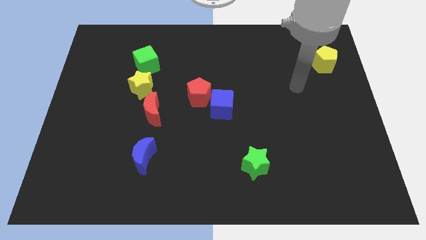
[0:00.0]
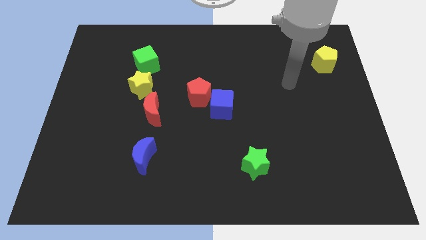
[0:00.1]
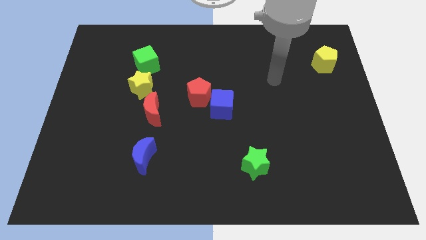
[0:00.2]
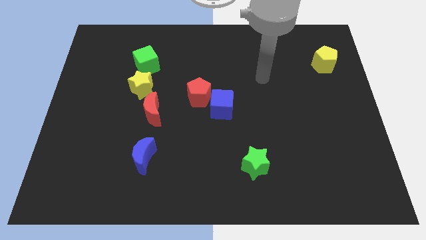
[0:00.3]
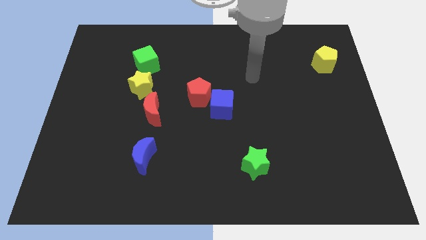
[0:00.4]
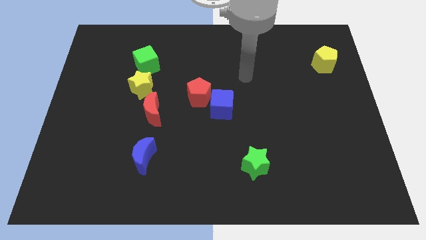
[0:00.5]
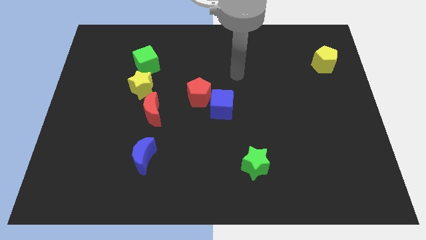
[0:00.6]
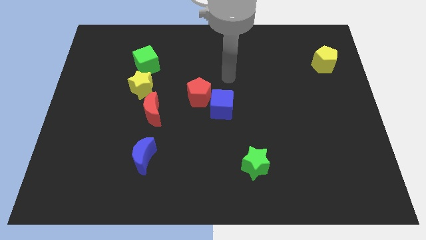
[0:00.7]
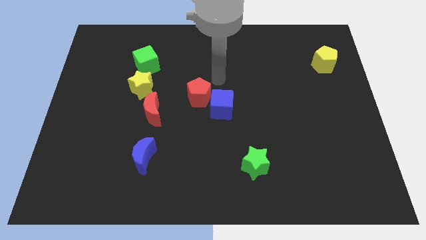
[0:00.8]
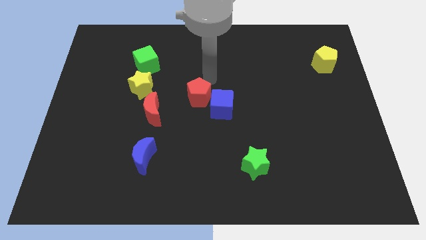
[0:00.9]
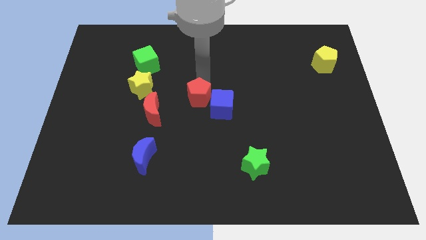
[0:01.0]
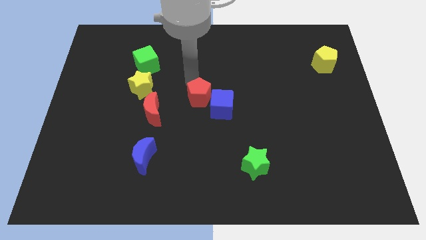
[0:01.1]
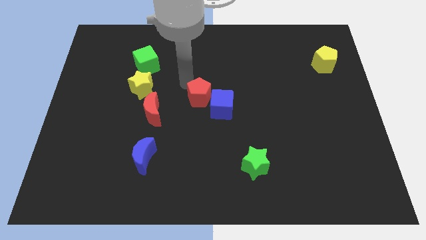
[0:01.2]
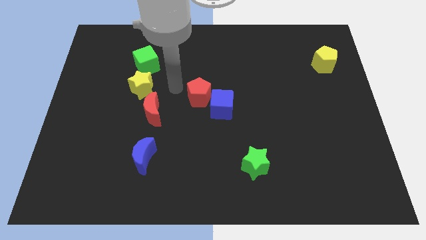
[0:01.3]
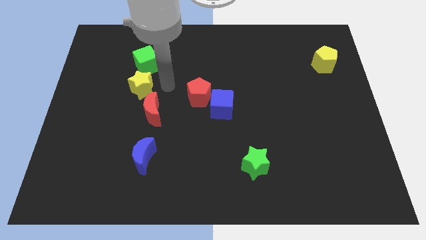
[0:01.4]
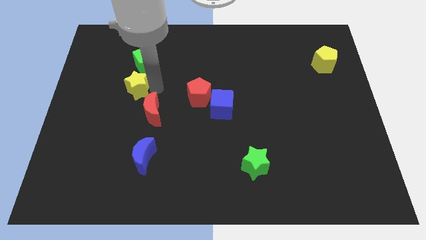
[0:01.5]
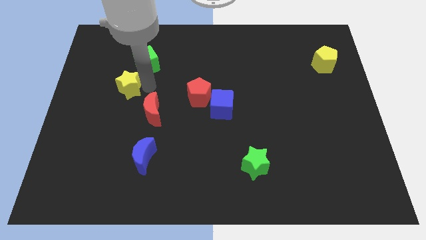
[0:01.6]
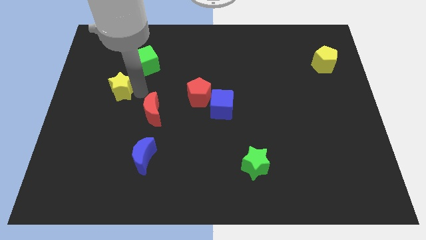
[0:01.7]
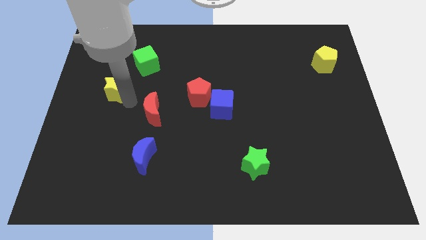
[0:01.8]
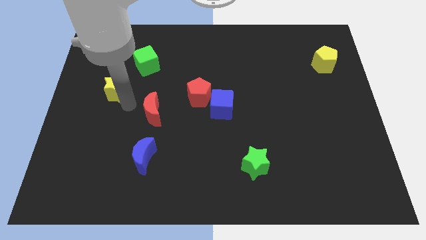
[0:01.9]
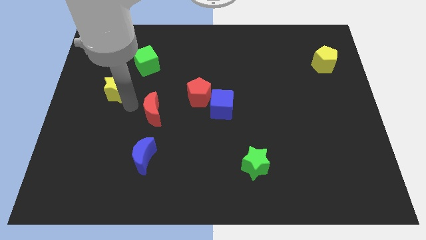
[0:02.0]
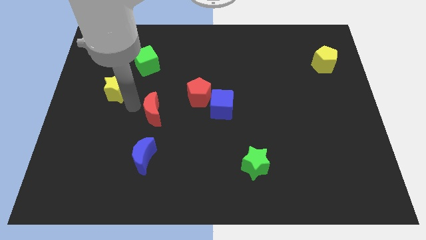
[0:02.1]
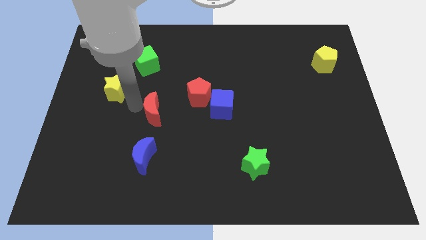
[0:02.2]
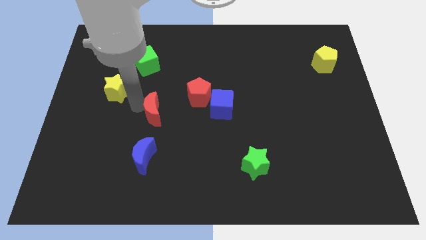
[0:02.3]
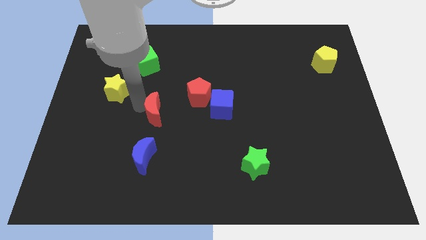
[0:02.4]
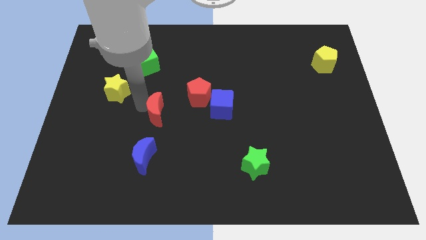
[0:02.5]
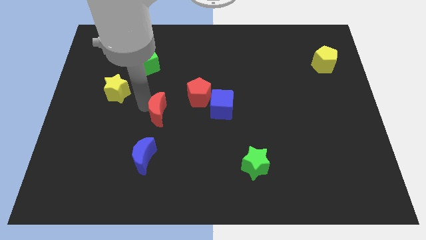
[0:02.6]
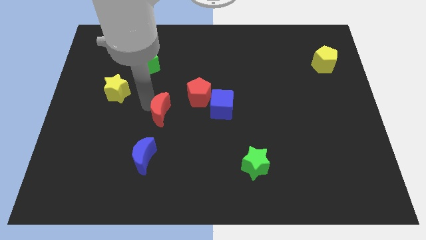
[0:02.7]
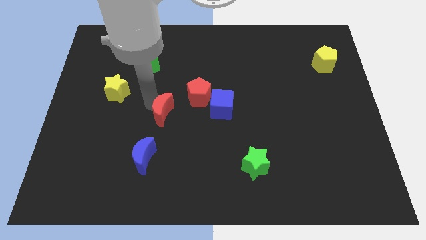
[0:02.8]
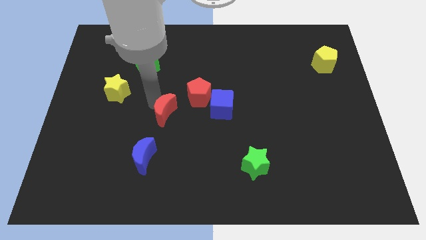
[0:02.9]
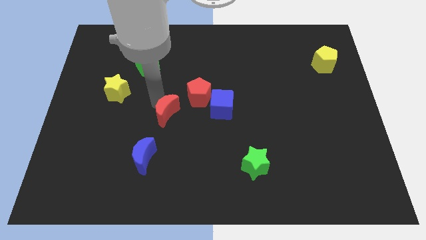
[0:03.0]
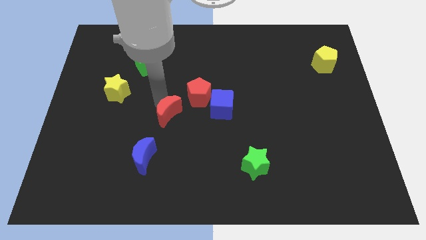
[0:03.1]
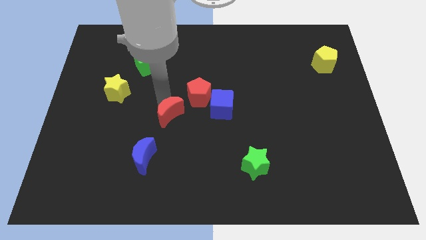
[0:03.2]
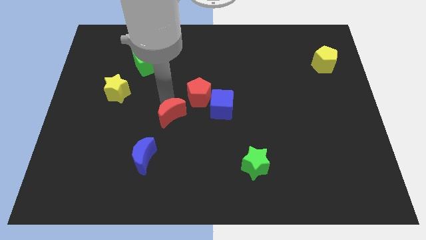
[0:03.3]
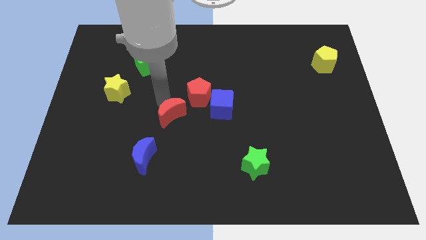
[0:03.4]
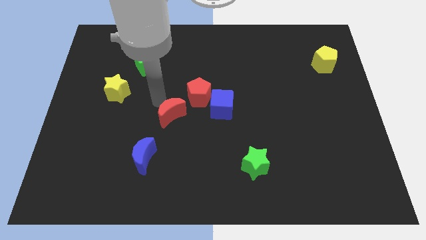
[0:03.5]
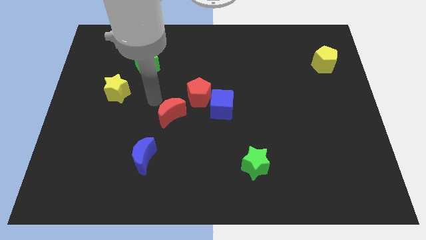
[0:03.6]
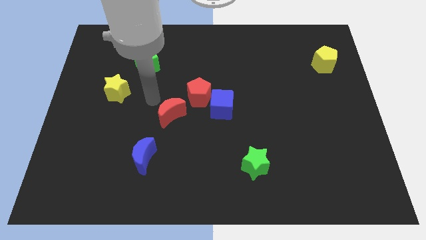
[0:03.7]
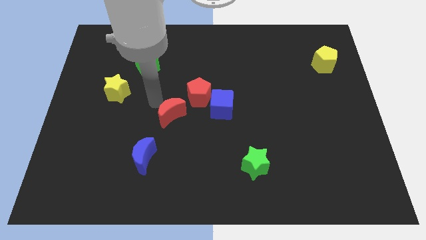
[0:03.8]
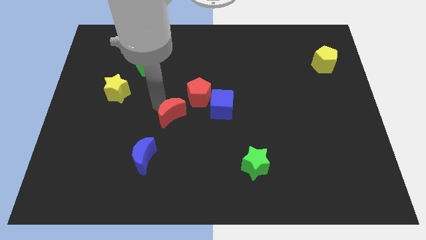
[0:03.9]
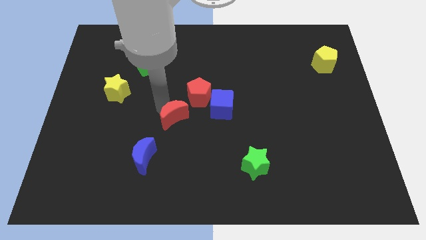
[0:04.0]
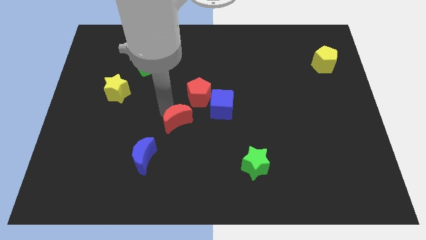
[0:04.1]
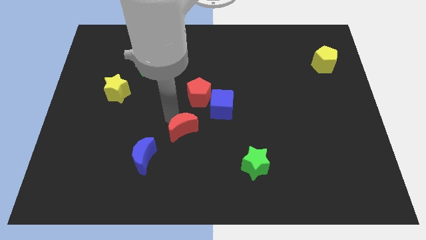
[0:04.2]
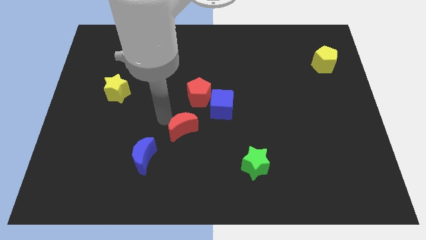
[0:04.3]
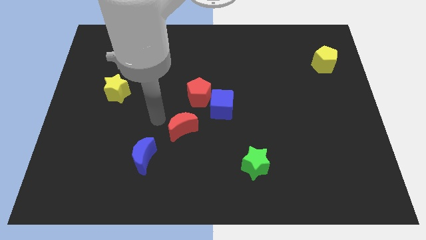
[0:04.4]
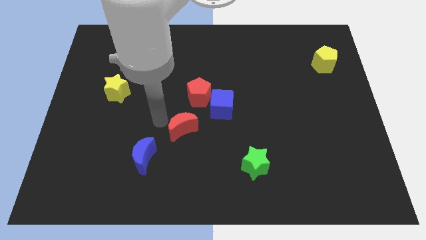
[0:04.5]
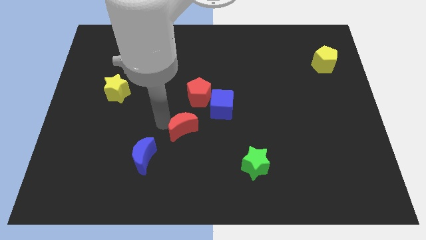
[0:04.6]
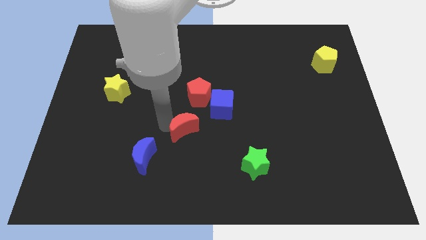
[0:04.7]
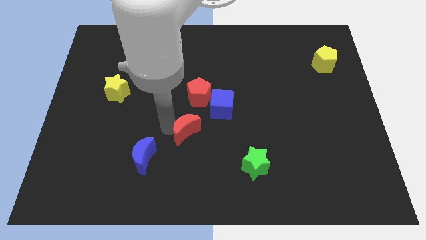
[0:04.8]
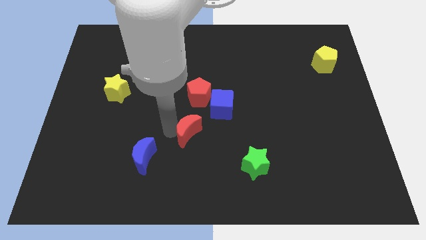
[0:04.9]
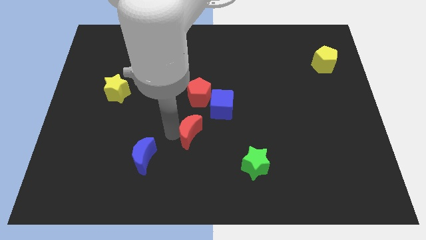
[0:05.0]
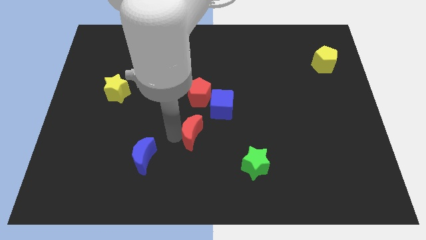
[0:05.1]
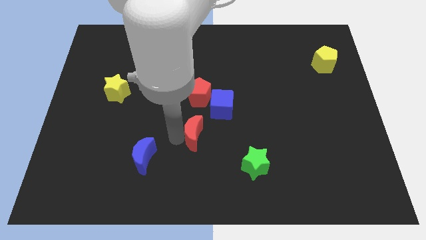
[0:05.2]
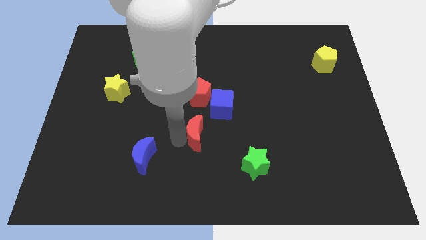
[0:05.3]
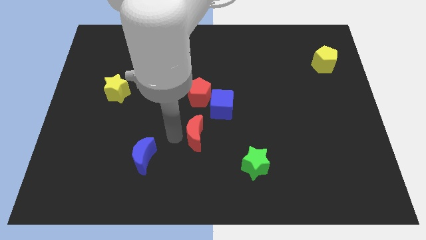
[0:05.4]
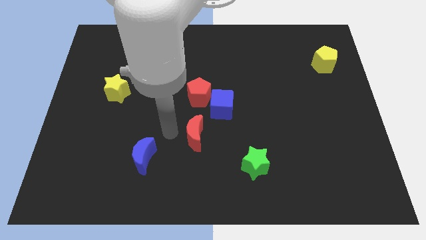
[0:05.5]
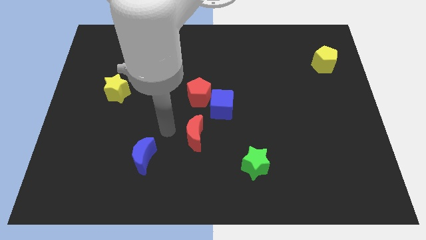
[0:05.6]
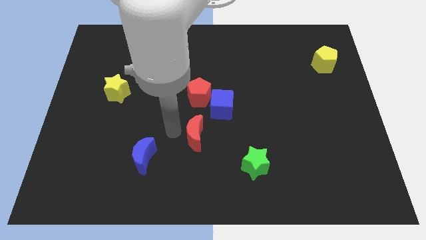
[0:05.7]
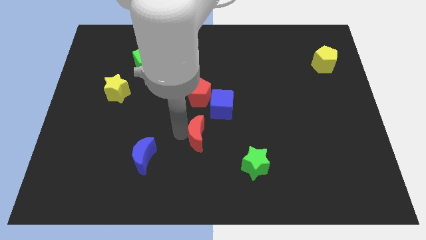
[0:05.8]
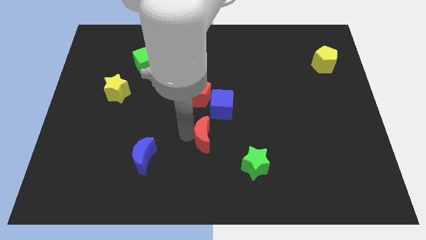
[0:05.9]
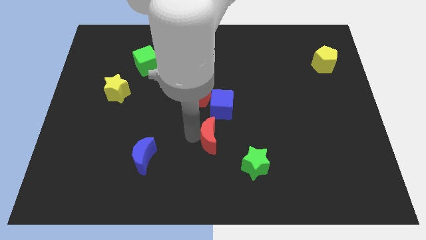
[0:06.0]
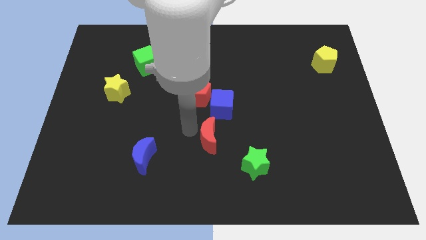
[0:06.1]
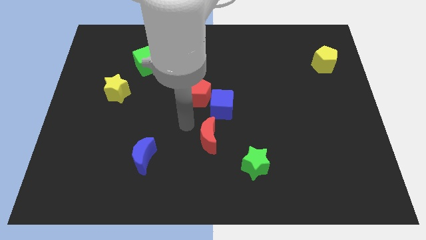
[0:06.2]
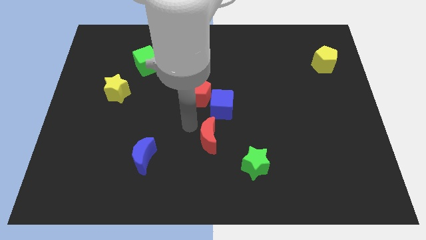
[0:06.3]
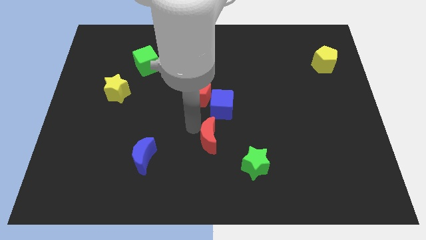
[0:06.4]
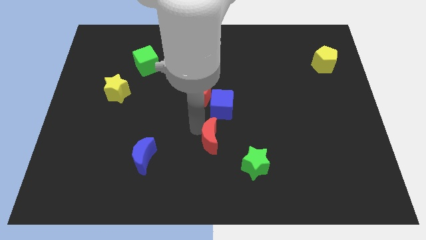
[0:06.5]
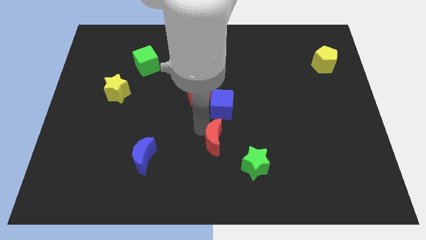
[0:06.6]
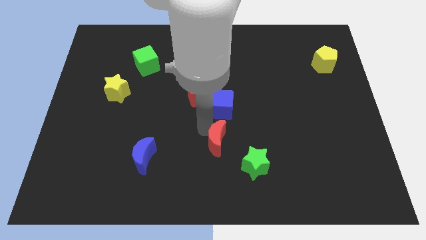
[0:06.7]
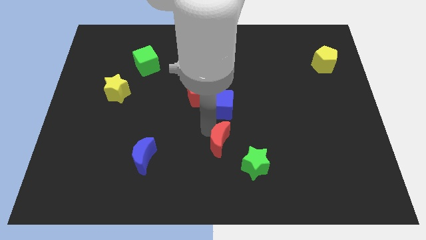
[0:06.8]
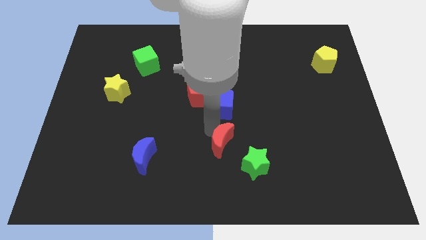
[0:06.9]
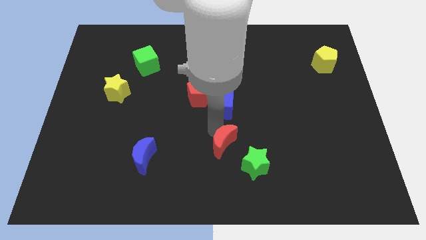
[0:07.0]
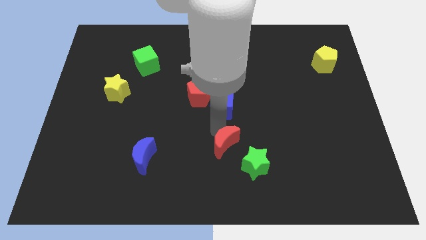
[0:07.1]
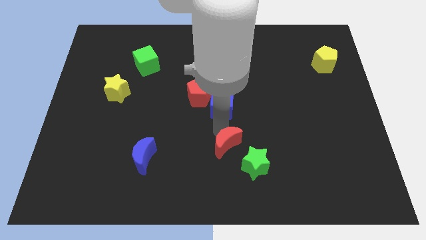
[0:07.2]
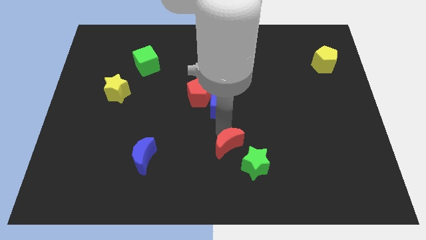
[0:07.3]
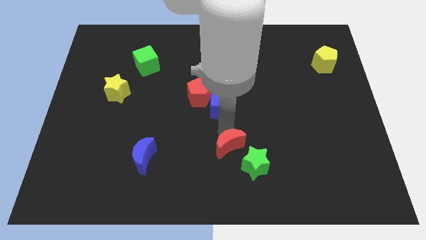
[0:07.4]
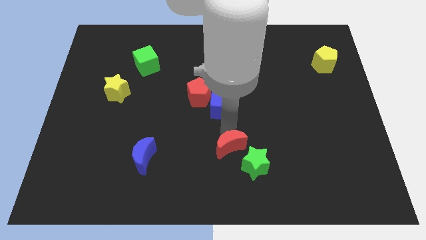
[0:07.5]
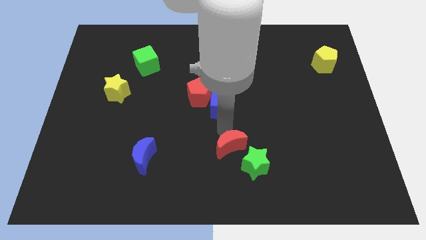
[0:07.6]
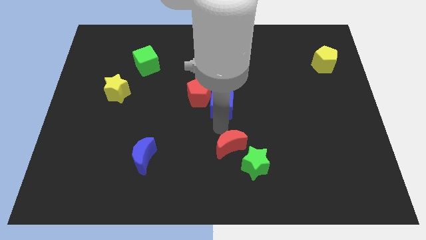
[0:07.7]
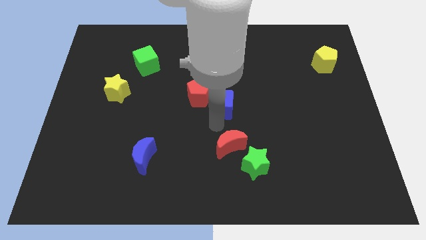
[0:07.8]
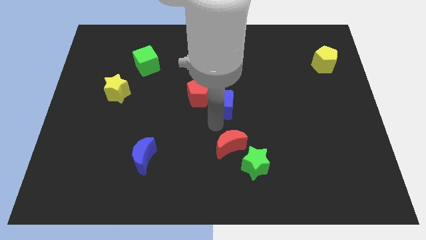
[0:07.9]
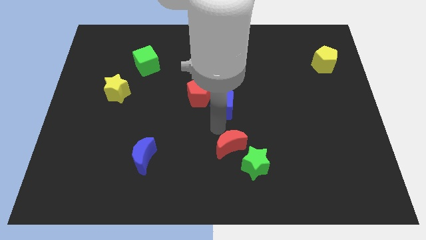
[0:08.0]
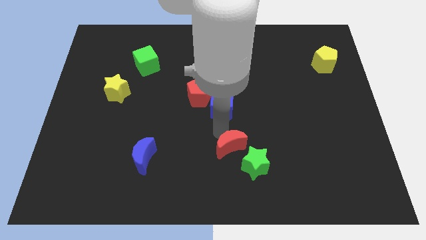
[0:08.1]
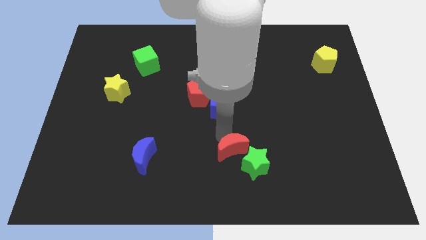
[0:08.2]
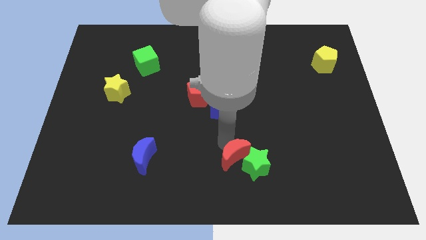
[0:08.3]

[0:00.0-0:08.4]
put the red moon to the green star
